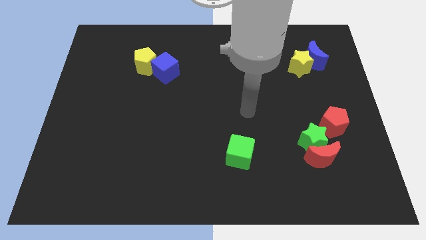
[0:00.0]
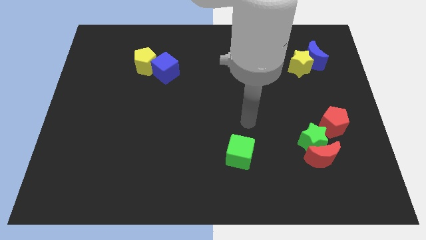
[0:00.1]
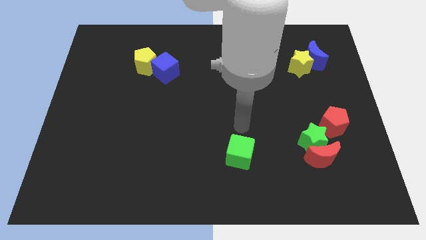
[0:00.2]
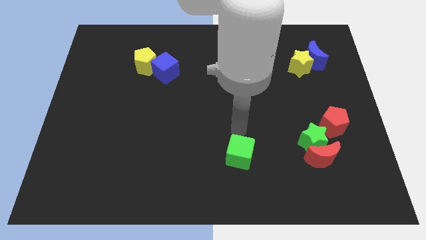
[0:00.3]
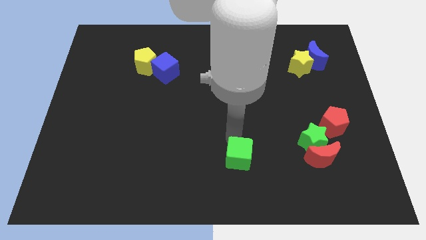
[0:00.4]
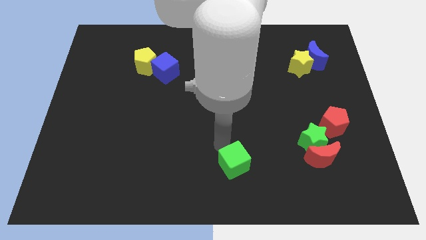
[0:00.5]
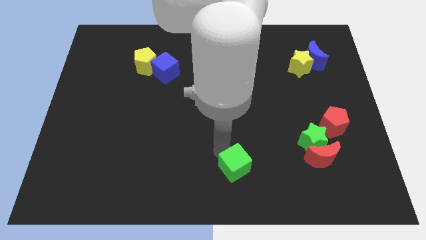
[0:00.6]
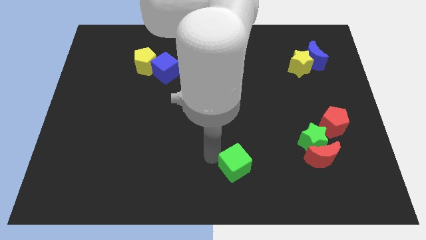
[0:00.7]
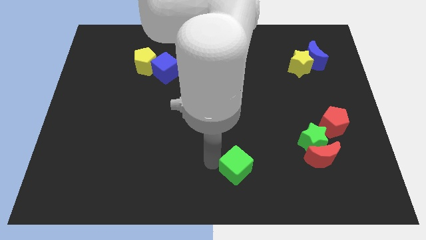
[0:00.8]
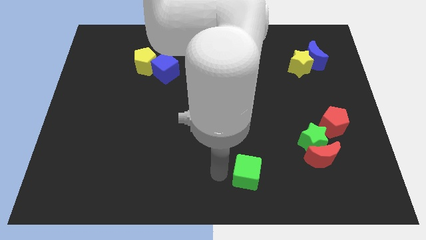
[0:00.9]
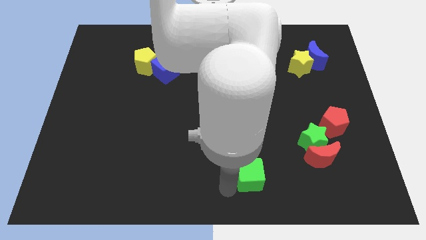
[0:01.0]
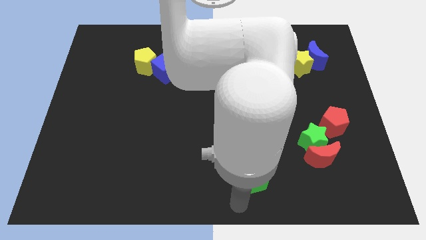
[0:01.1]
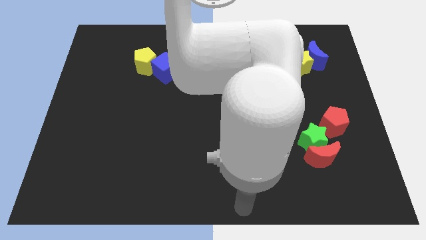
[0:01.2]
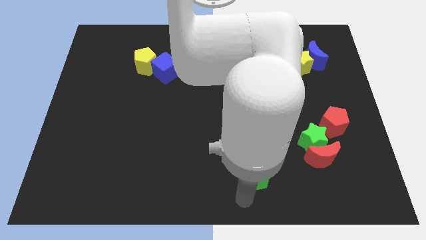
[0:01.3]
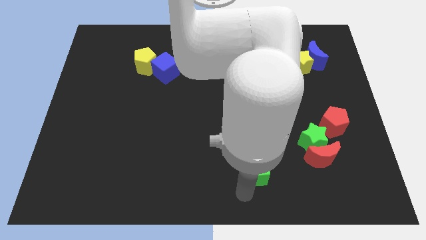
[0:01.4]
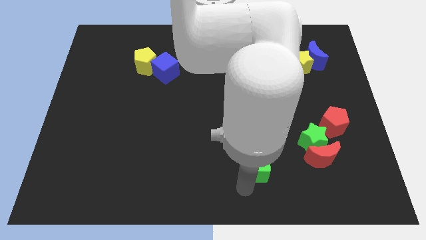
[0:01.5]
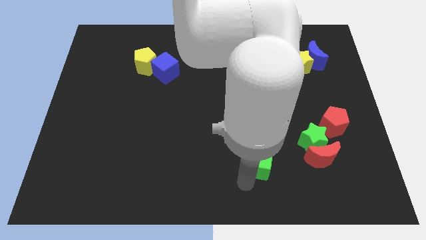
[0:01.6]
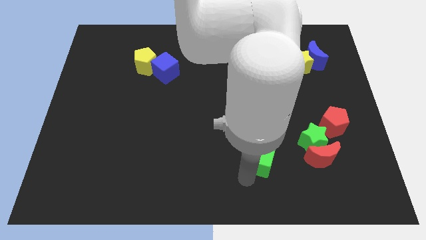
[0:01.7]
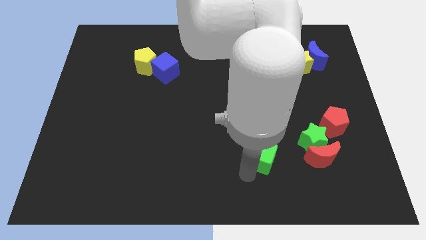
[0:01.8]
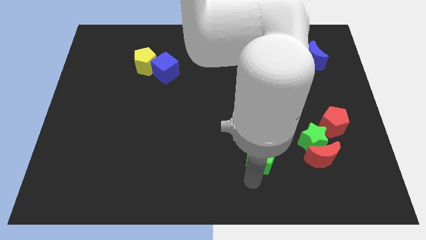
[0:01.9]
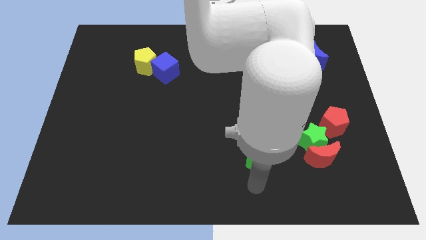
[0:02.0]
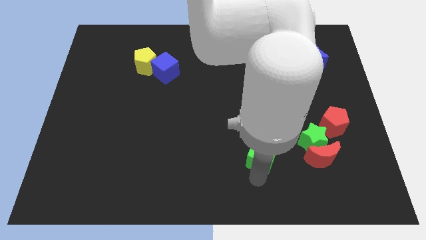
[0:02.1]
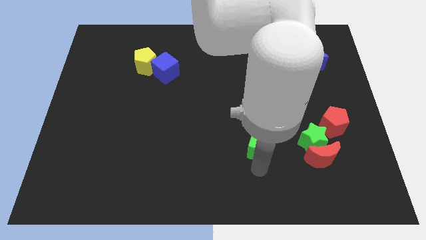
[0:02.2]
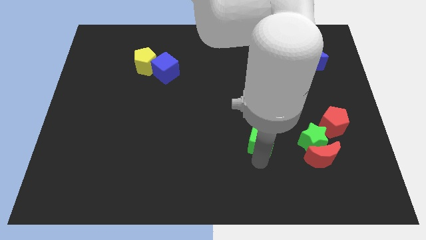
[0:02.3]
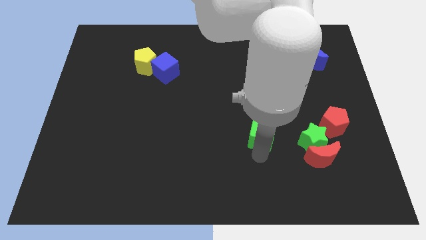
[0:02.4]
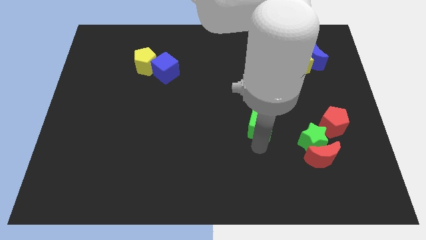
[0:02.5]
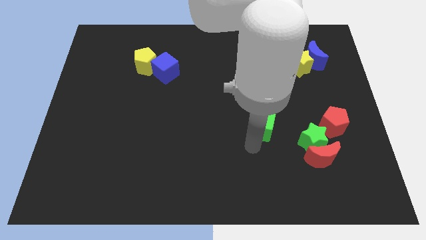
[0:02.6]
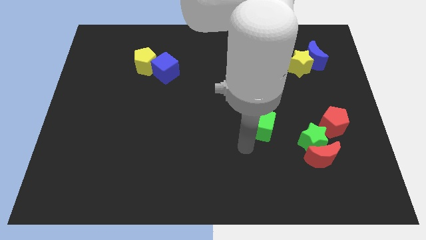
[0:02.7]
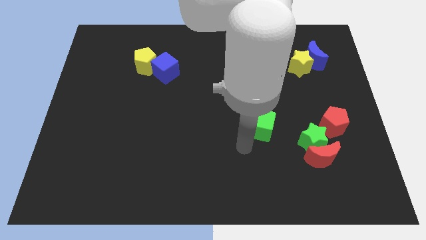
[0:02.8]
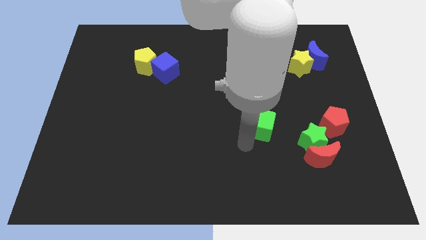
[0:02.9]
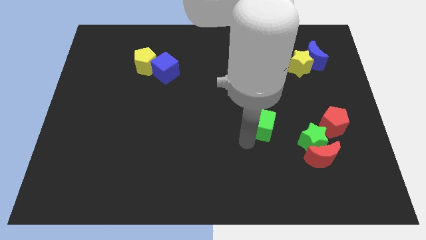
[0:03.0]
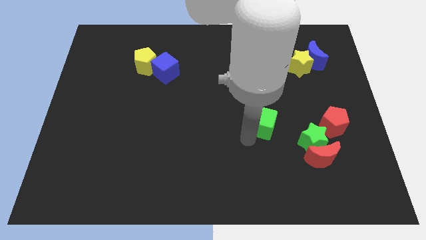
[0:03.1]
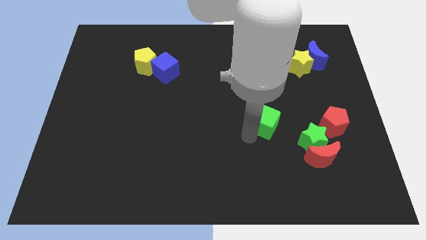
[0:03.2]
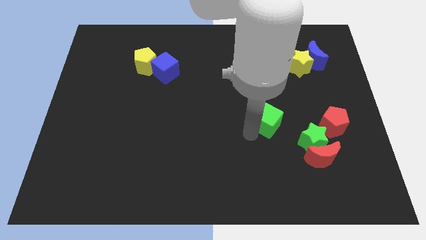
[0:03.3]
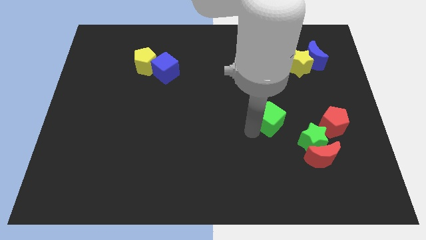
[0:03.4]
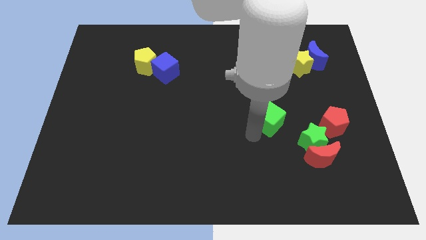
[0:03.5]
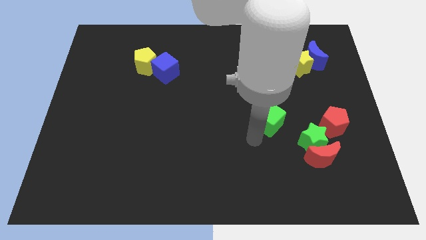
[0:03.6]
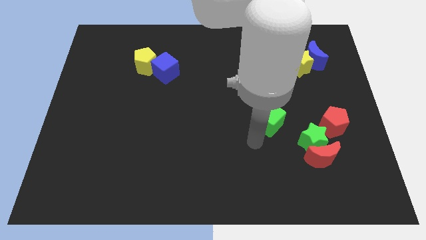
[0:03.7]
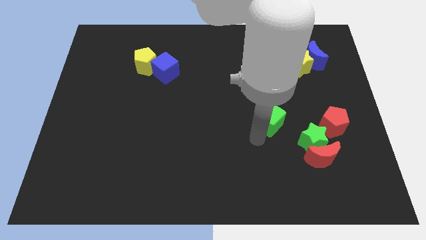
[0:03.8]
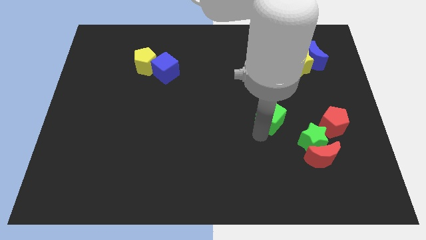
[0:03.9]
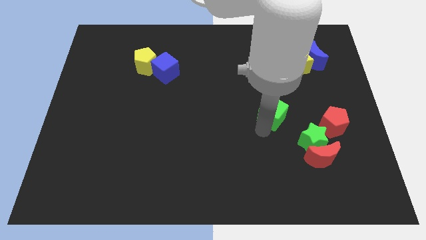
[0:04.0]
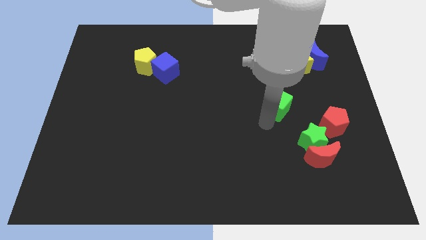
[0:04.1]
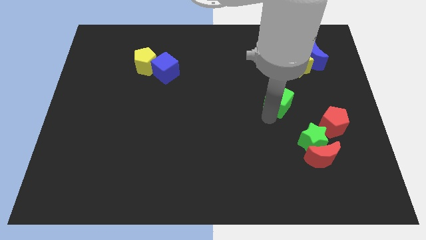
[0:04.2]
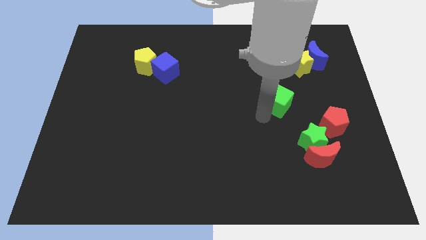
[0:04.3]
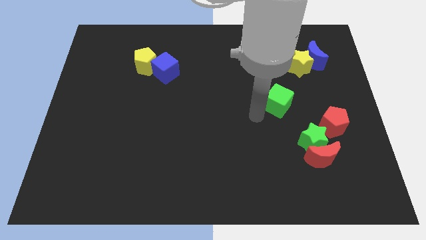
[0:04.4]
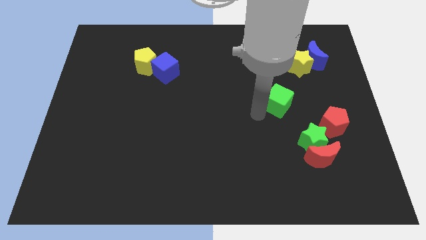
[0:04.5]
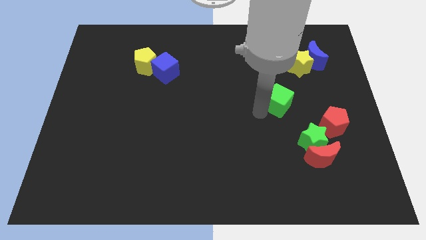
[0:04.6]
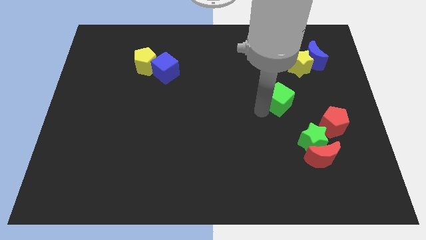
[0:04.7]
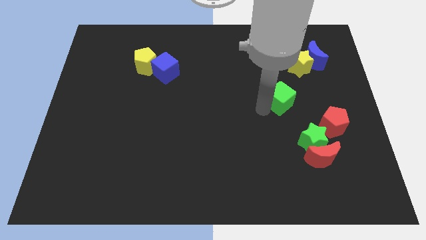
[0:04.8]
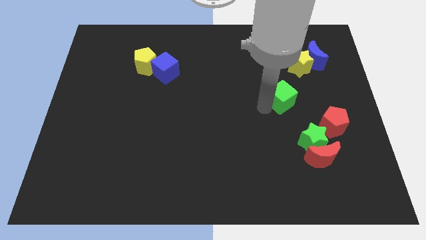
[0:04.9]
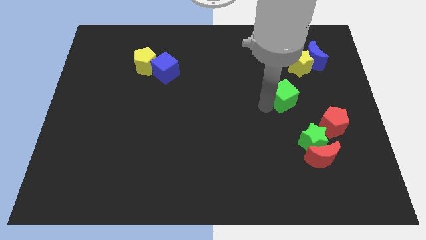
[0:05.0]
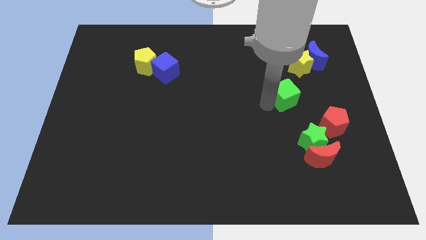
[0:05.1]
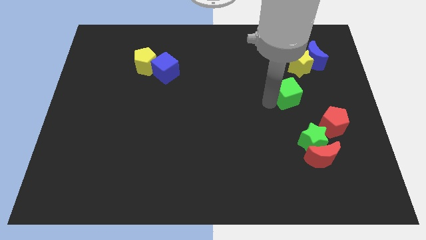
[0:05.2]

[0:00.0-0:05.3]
push the green cube up and then right

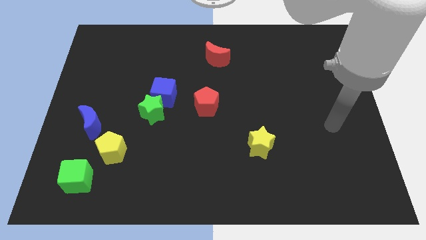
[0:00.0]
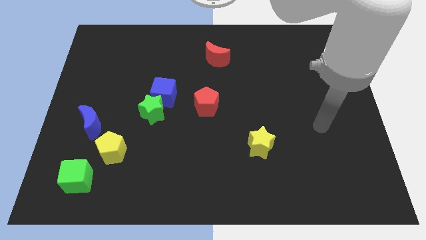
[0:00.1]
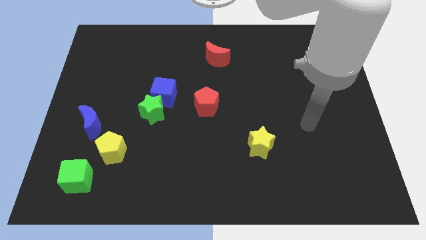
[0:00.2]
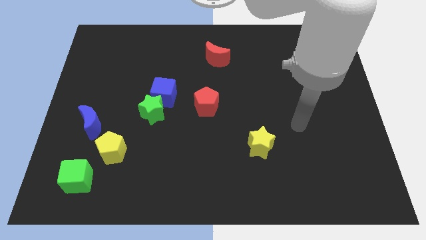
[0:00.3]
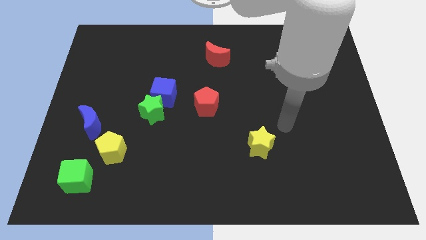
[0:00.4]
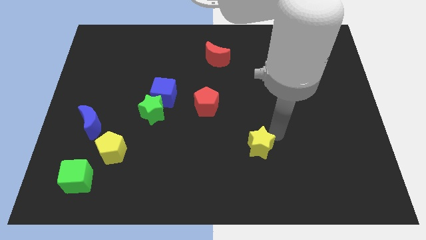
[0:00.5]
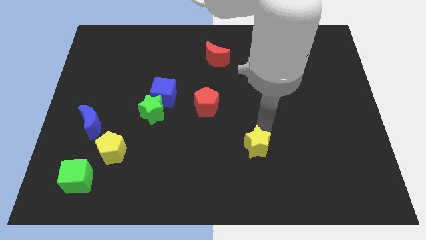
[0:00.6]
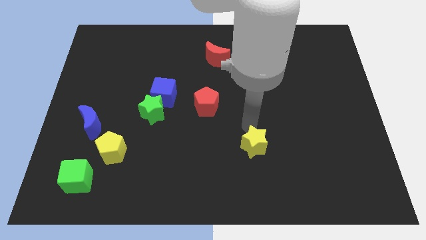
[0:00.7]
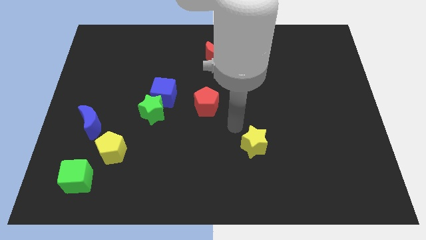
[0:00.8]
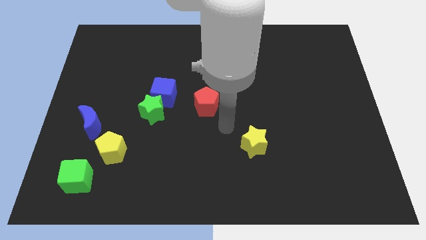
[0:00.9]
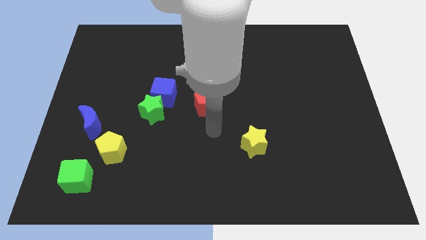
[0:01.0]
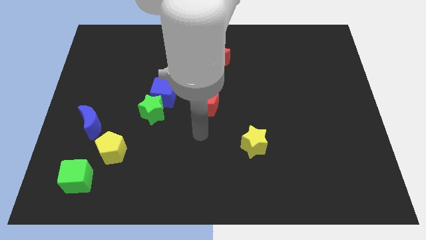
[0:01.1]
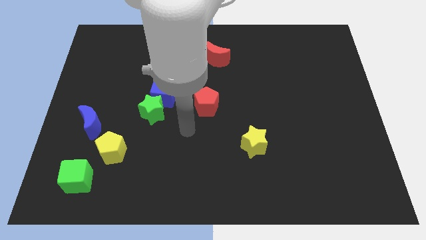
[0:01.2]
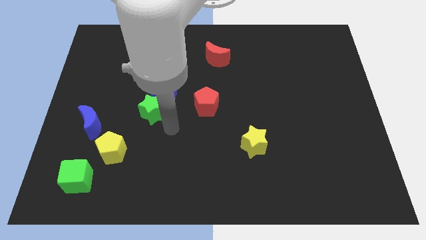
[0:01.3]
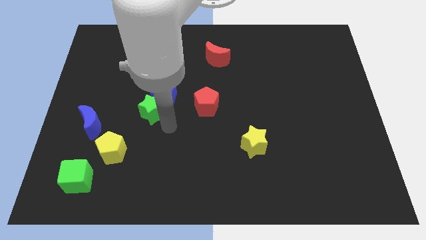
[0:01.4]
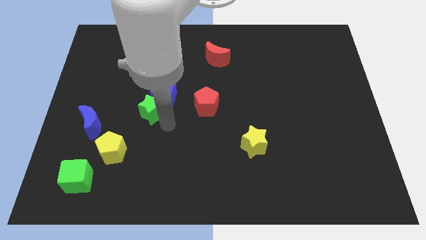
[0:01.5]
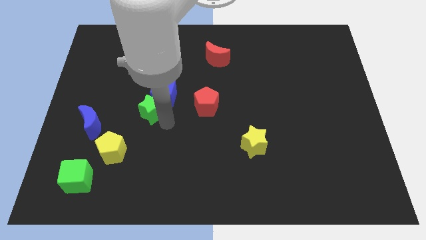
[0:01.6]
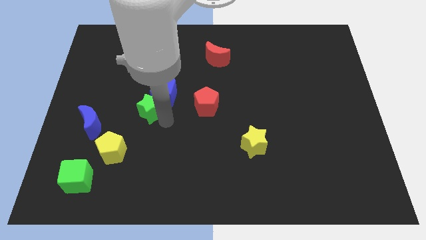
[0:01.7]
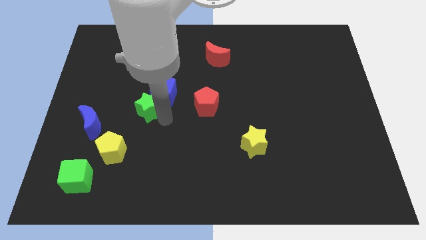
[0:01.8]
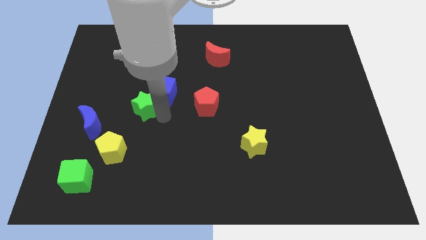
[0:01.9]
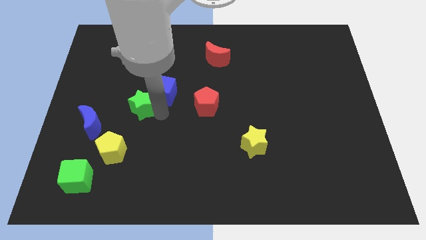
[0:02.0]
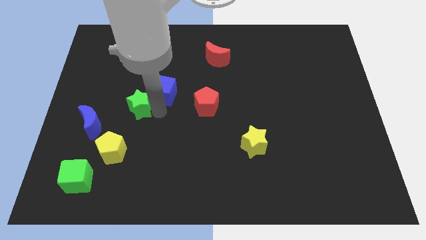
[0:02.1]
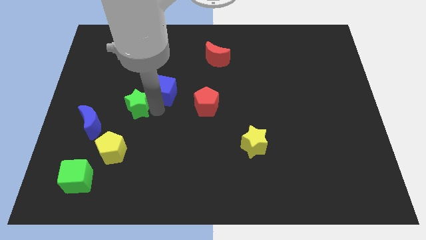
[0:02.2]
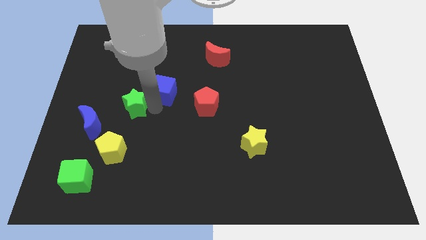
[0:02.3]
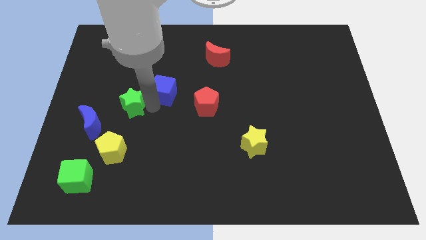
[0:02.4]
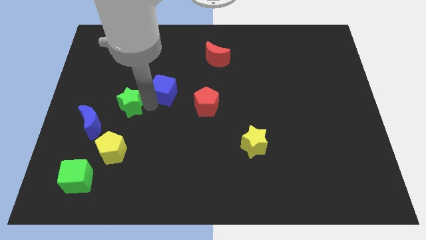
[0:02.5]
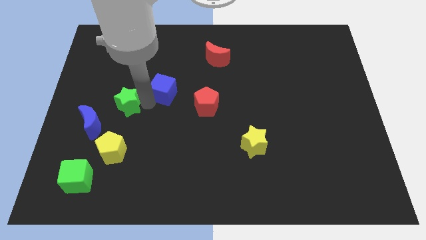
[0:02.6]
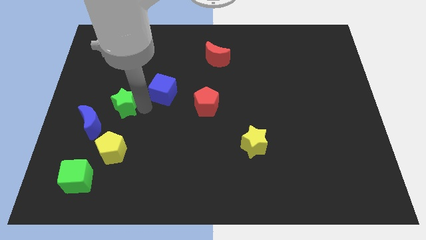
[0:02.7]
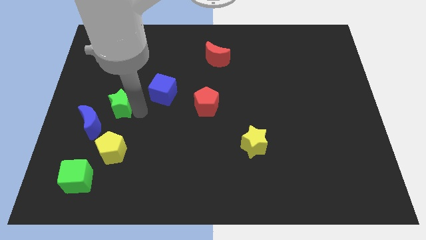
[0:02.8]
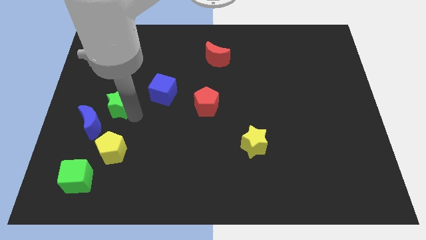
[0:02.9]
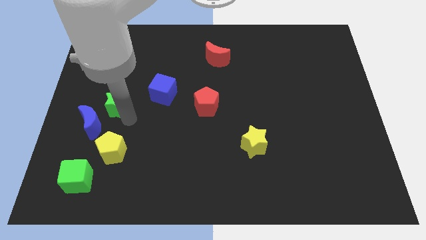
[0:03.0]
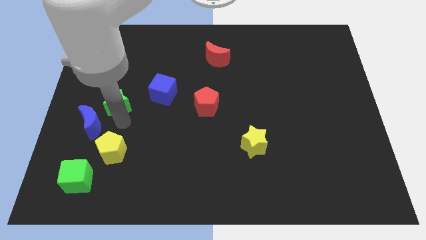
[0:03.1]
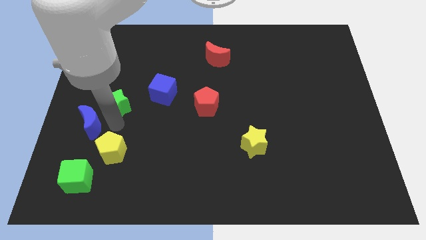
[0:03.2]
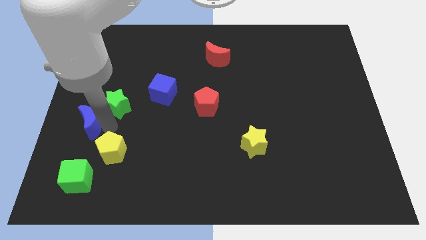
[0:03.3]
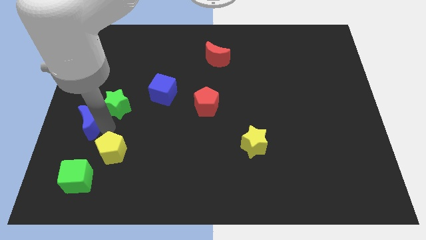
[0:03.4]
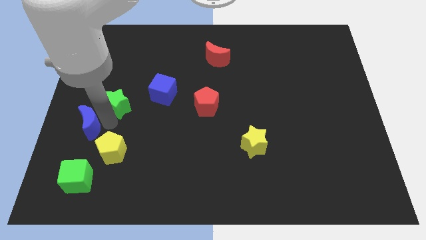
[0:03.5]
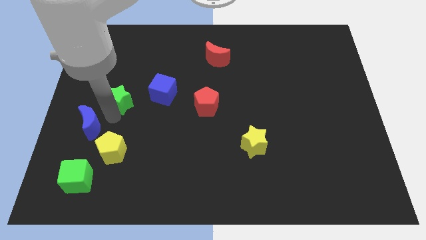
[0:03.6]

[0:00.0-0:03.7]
push the green star upwards and then to the left slightly
